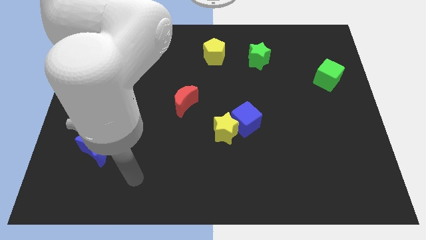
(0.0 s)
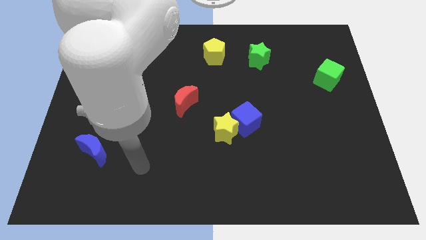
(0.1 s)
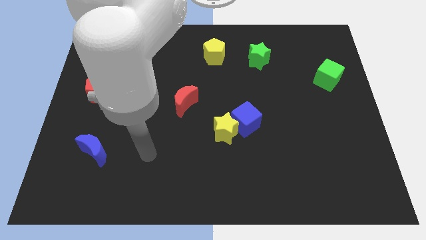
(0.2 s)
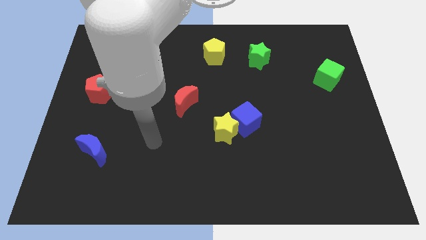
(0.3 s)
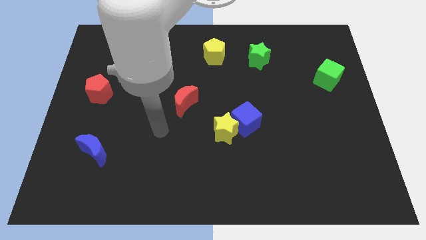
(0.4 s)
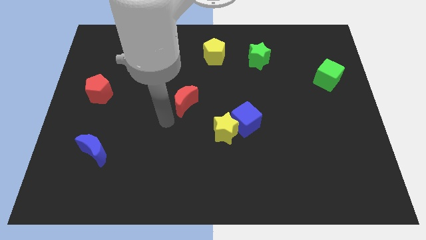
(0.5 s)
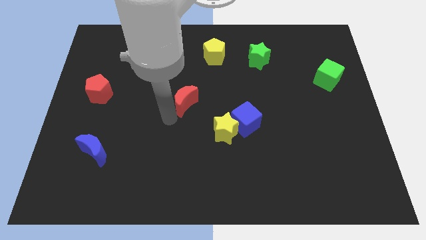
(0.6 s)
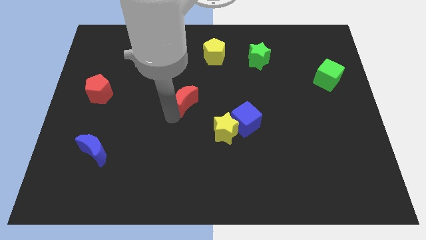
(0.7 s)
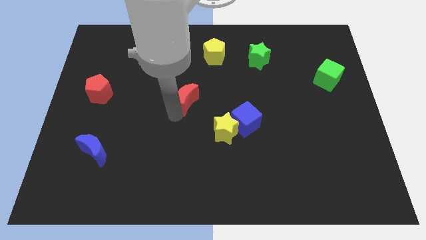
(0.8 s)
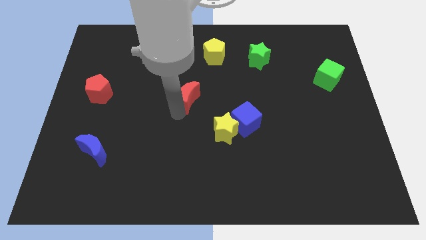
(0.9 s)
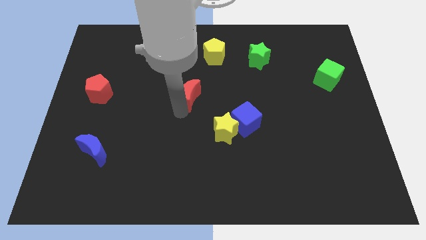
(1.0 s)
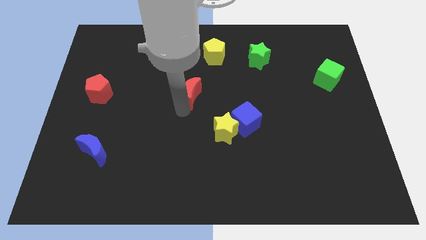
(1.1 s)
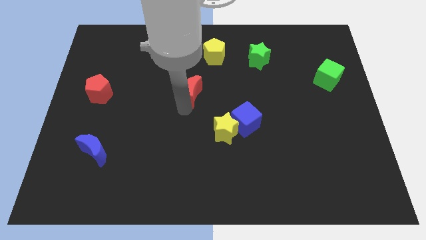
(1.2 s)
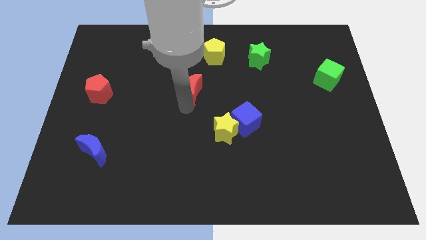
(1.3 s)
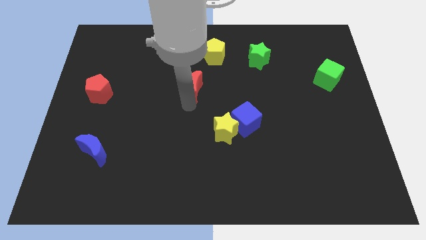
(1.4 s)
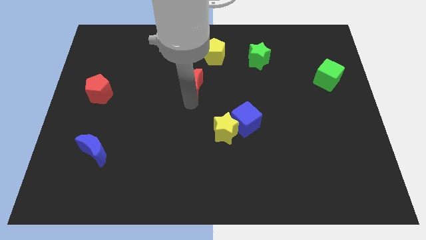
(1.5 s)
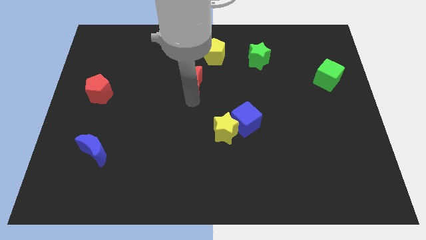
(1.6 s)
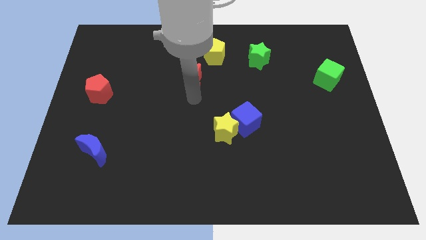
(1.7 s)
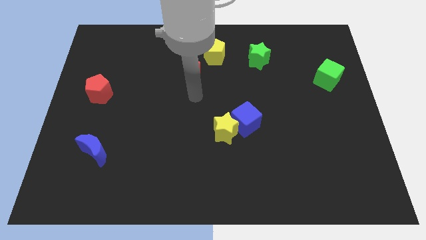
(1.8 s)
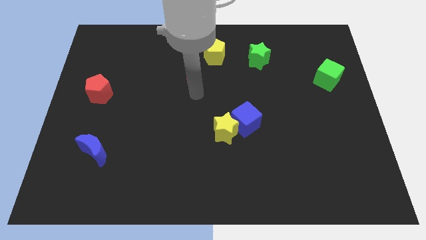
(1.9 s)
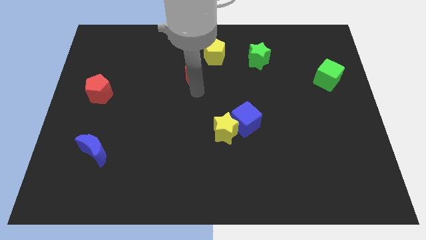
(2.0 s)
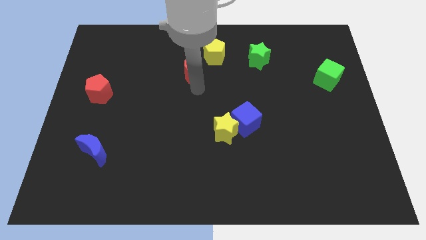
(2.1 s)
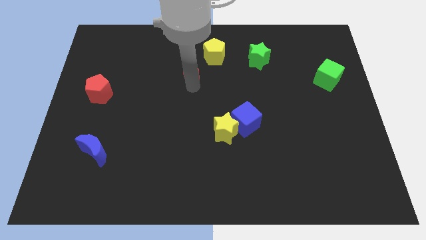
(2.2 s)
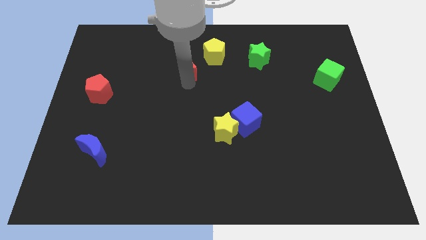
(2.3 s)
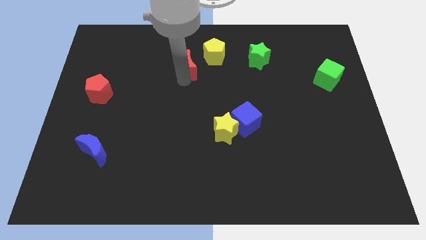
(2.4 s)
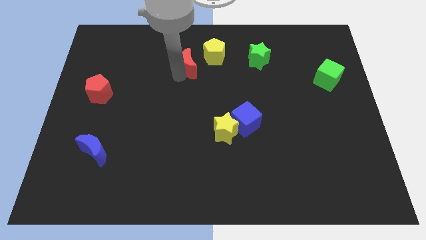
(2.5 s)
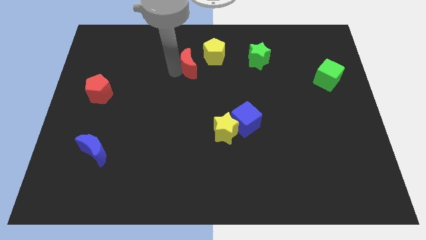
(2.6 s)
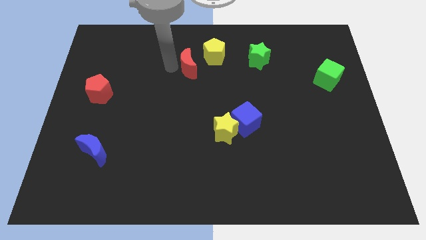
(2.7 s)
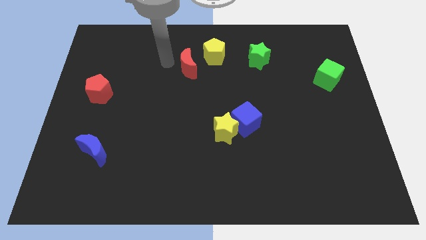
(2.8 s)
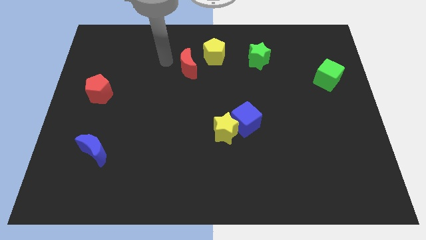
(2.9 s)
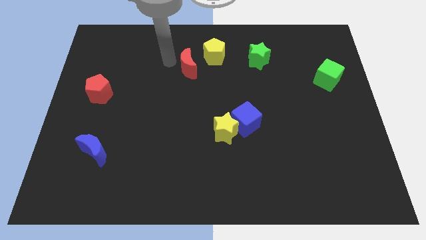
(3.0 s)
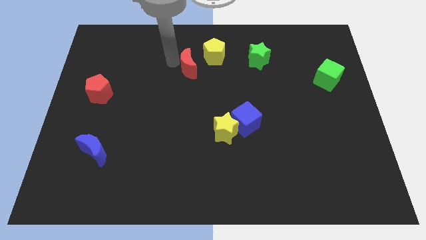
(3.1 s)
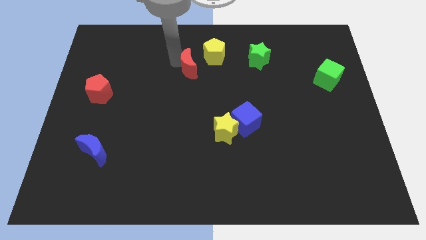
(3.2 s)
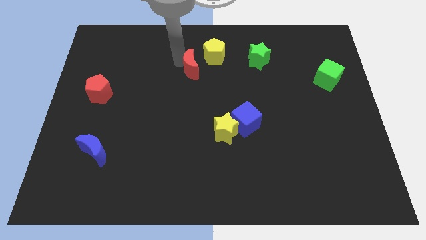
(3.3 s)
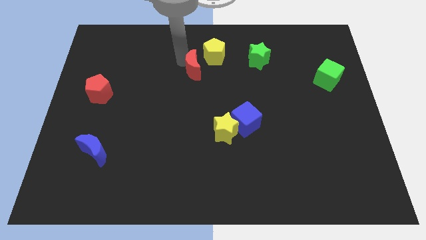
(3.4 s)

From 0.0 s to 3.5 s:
push the red moon a bit upwards and to the right

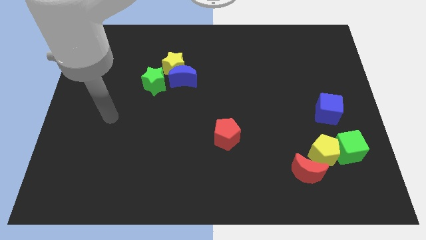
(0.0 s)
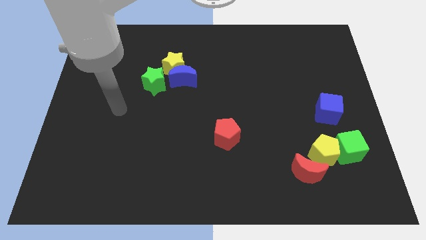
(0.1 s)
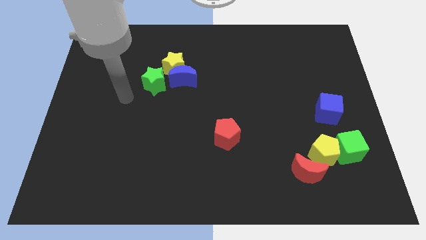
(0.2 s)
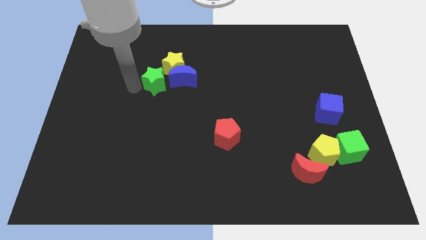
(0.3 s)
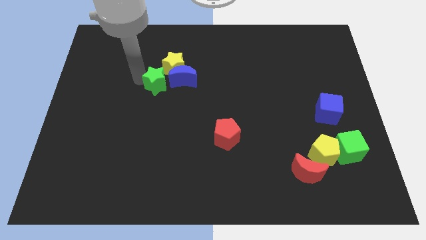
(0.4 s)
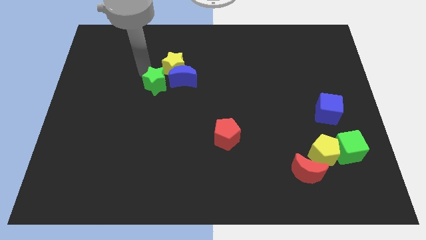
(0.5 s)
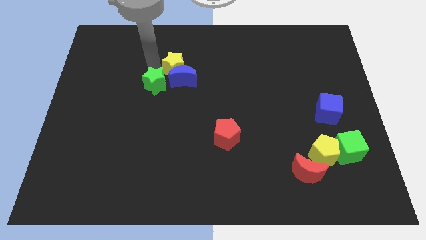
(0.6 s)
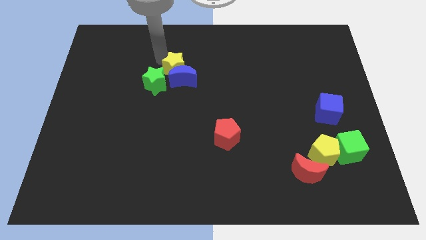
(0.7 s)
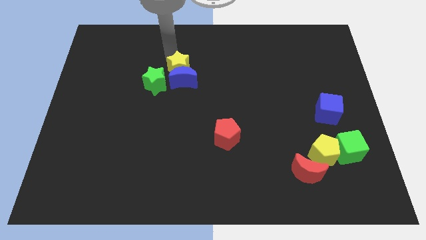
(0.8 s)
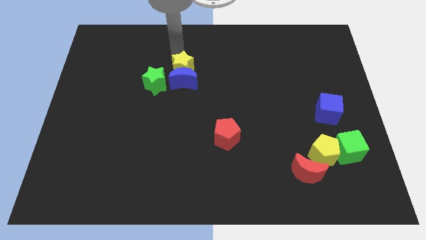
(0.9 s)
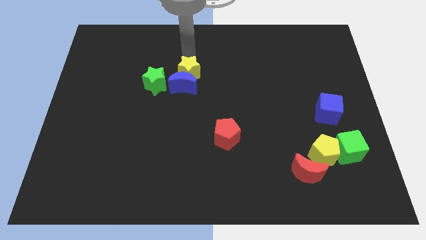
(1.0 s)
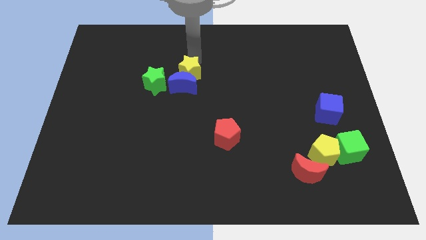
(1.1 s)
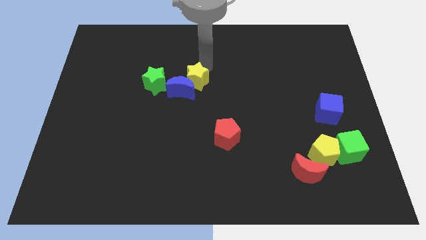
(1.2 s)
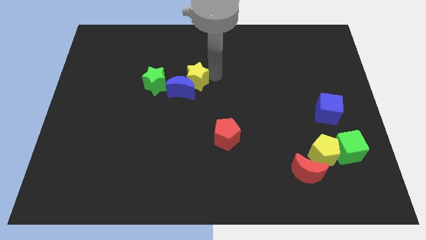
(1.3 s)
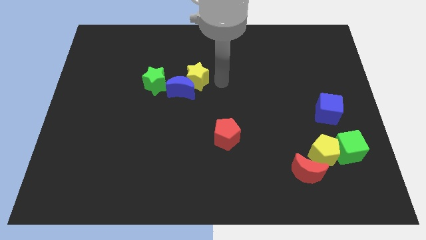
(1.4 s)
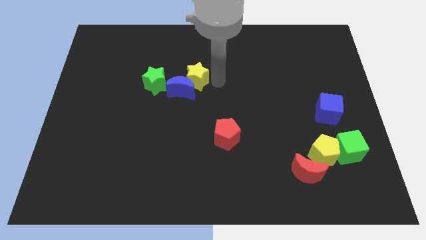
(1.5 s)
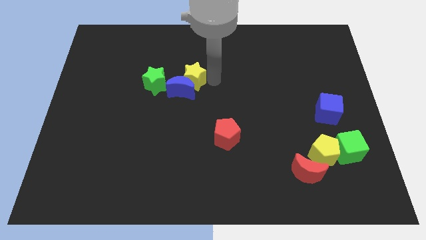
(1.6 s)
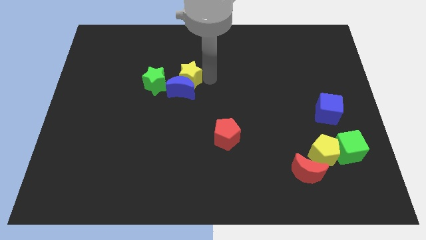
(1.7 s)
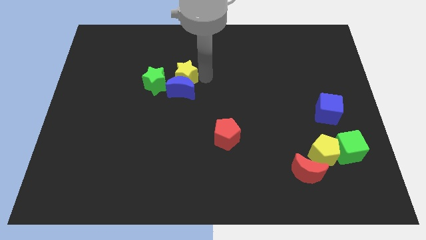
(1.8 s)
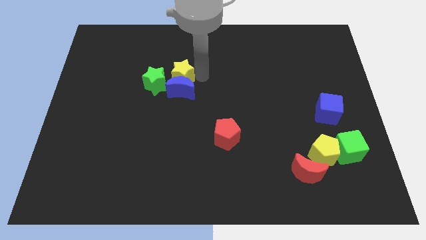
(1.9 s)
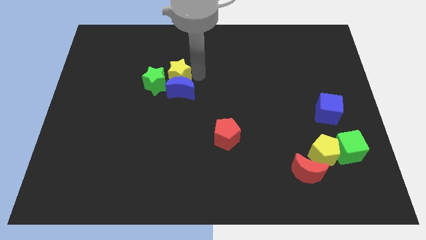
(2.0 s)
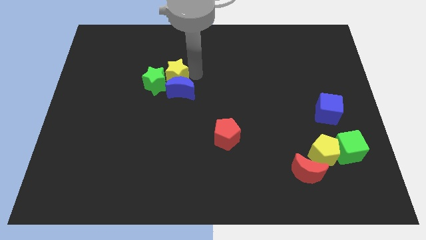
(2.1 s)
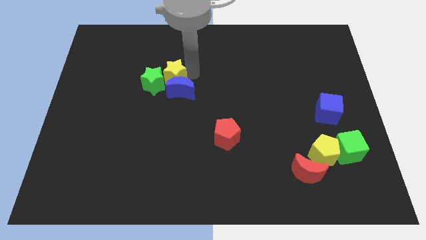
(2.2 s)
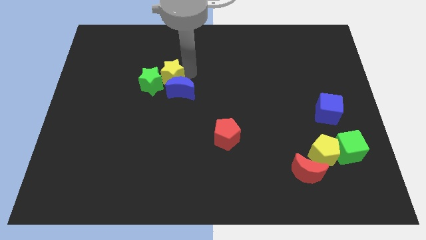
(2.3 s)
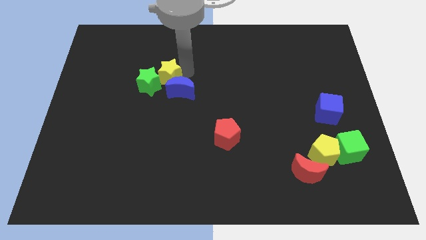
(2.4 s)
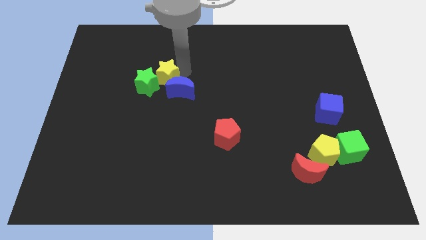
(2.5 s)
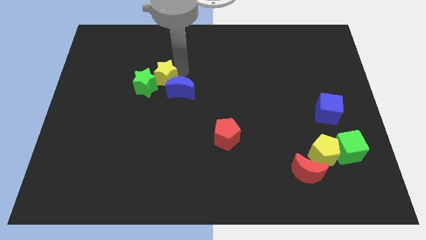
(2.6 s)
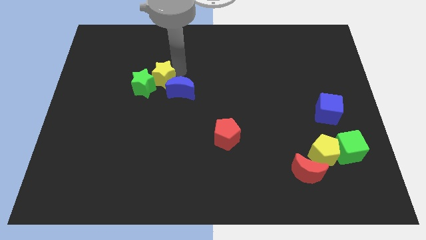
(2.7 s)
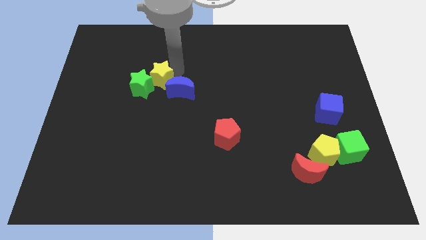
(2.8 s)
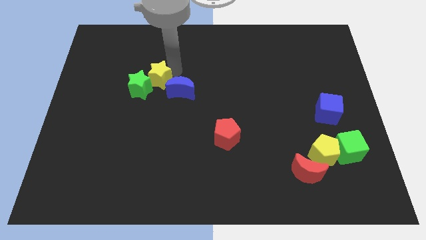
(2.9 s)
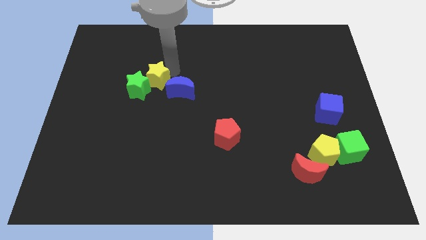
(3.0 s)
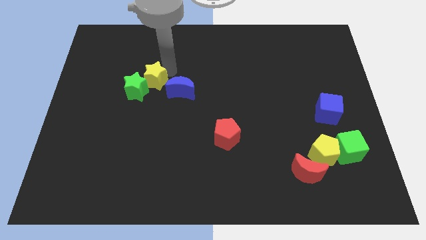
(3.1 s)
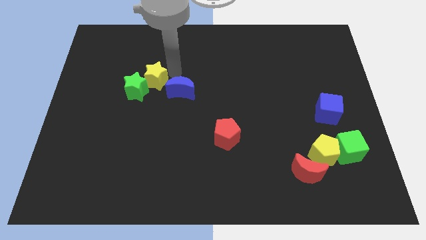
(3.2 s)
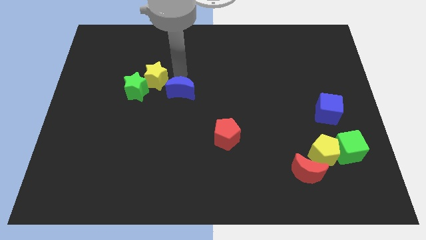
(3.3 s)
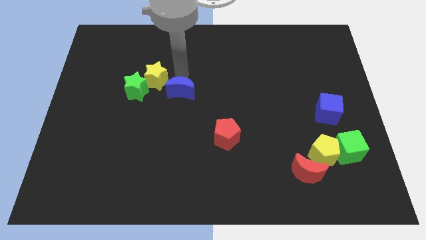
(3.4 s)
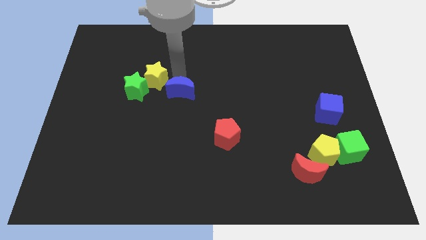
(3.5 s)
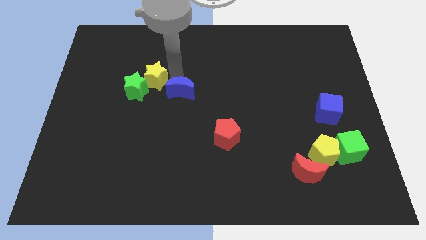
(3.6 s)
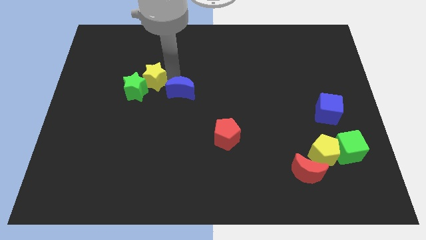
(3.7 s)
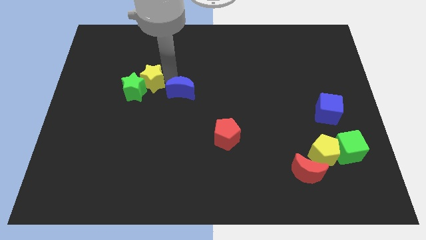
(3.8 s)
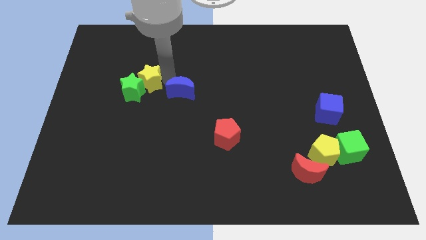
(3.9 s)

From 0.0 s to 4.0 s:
push the yellow star a little downwards and left diagonally

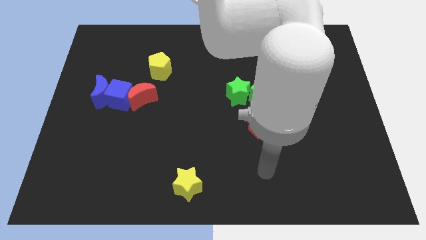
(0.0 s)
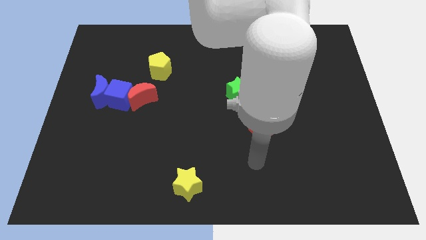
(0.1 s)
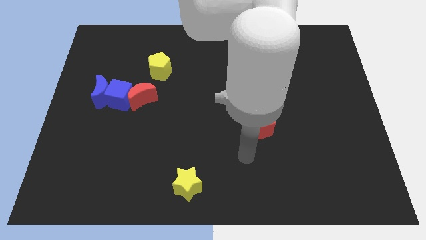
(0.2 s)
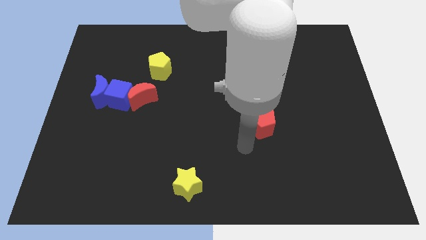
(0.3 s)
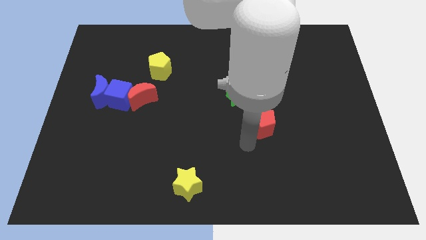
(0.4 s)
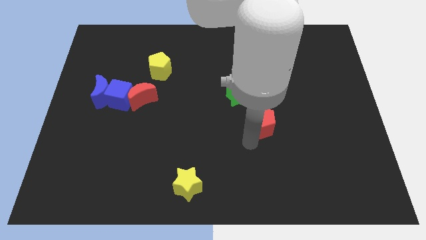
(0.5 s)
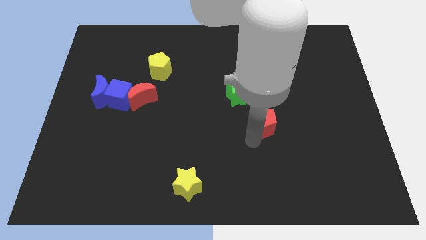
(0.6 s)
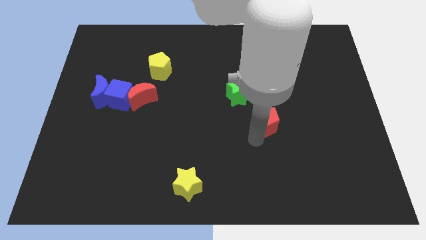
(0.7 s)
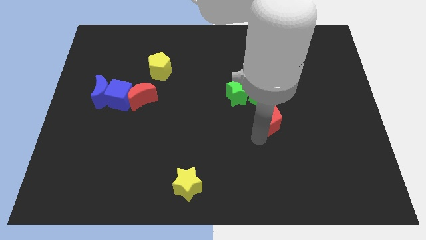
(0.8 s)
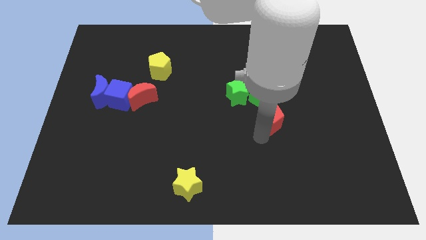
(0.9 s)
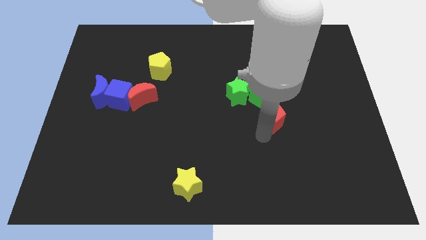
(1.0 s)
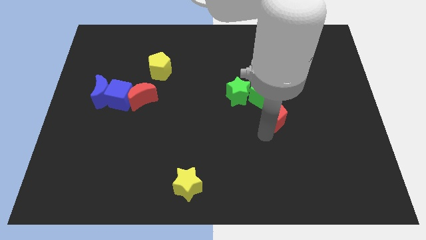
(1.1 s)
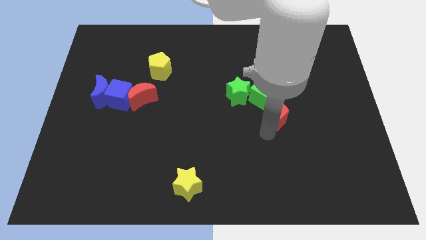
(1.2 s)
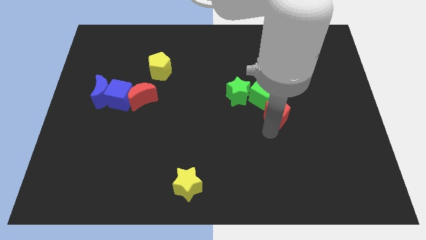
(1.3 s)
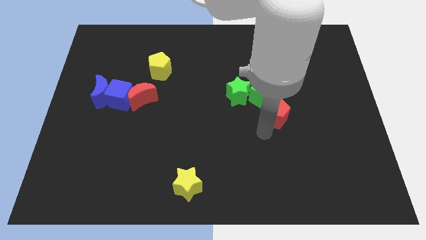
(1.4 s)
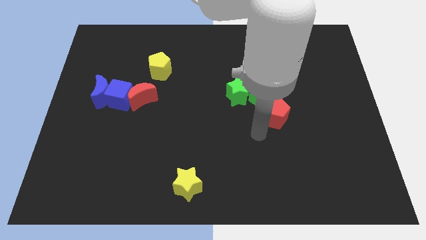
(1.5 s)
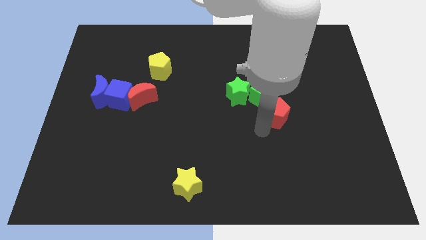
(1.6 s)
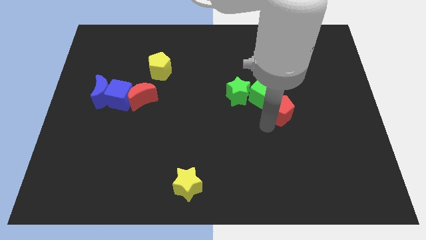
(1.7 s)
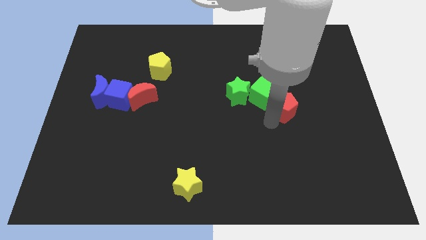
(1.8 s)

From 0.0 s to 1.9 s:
move the red pentagon a little diagonally upwards and to the right
